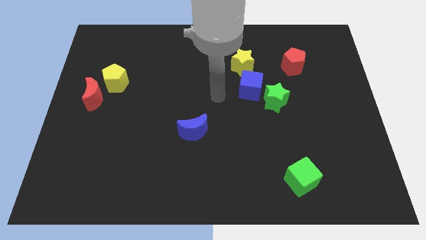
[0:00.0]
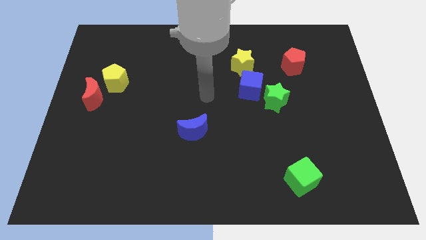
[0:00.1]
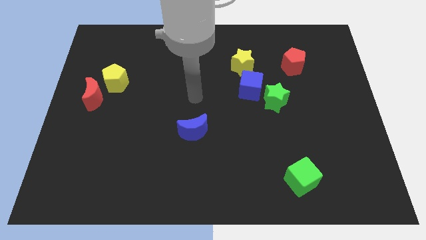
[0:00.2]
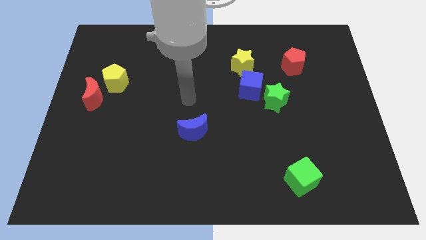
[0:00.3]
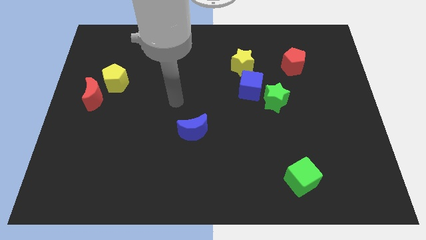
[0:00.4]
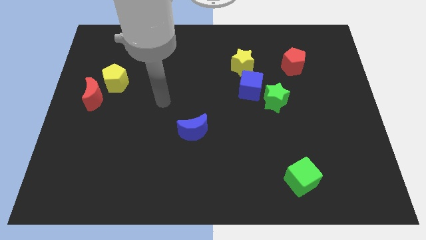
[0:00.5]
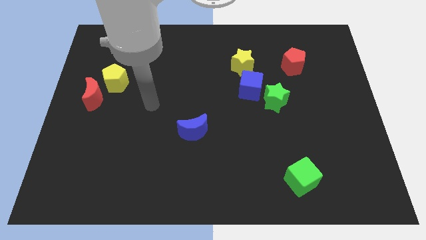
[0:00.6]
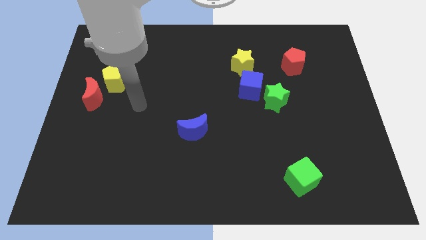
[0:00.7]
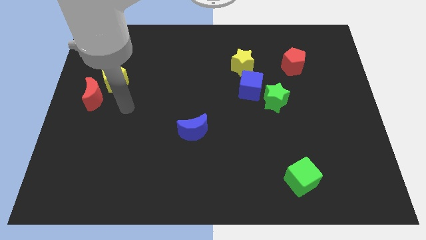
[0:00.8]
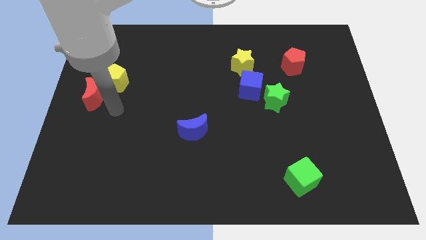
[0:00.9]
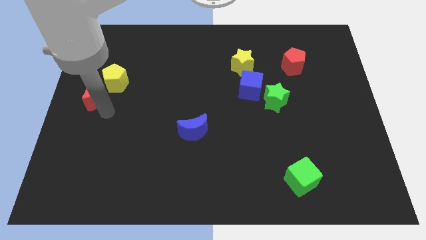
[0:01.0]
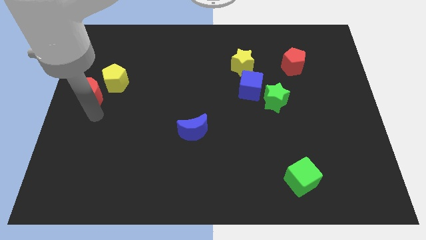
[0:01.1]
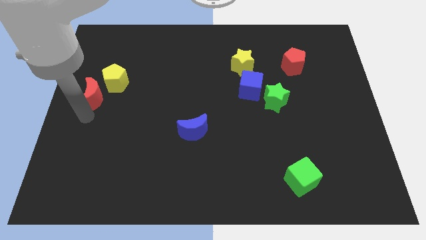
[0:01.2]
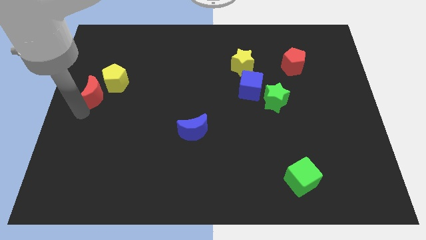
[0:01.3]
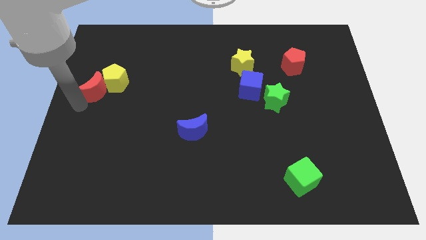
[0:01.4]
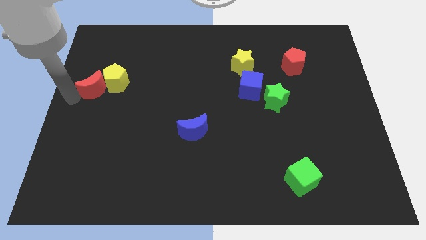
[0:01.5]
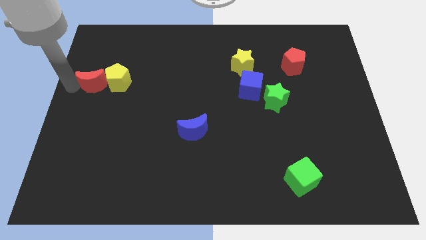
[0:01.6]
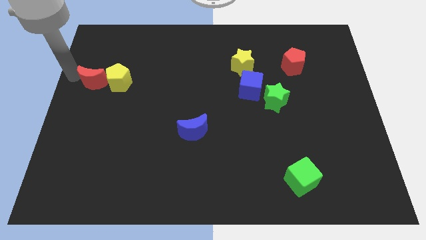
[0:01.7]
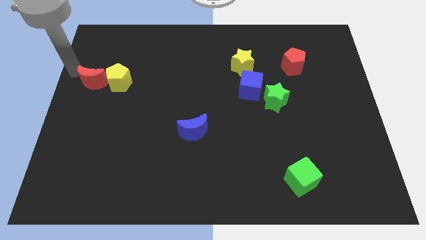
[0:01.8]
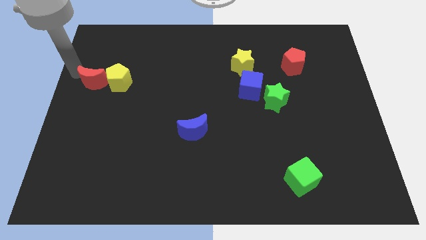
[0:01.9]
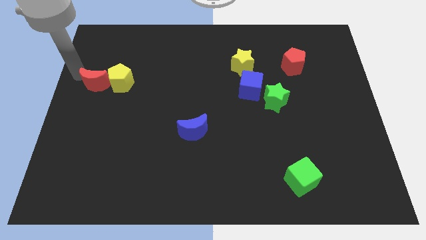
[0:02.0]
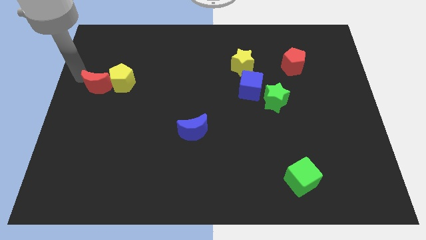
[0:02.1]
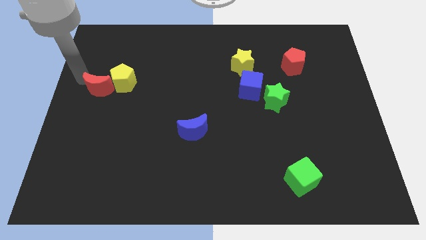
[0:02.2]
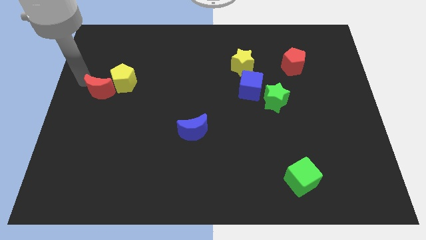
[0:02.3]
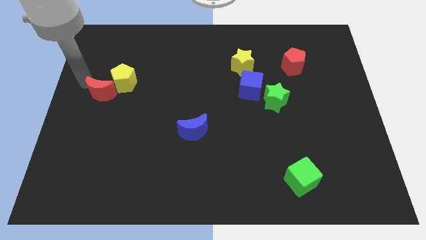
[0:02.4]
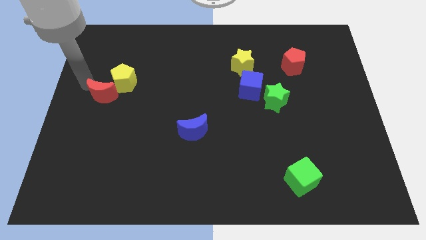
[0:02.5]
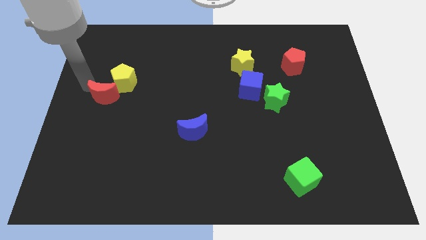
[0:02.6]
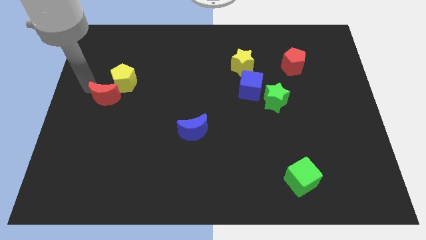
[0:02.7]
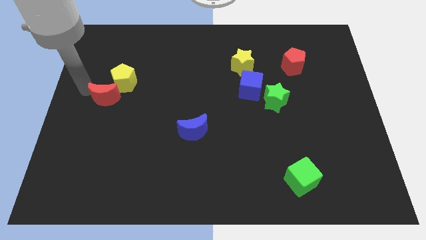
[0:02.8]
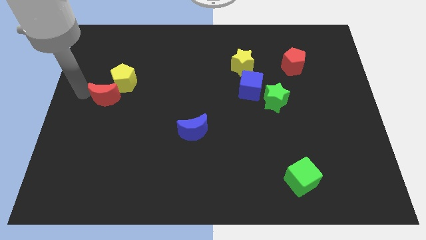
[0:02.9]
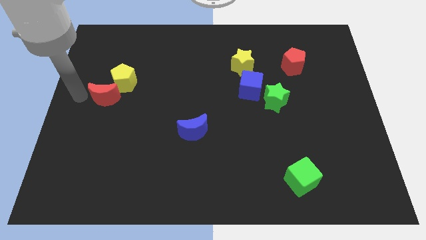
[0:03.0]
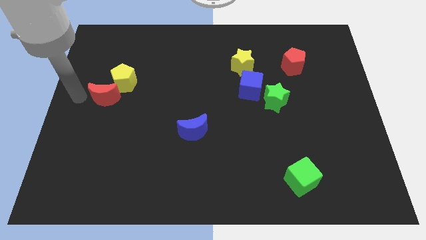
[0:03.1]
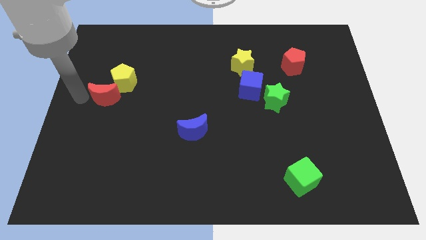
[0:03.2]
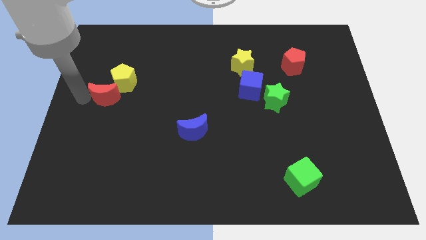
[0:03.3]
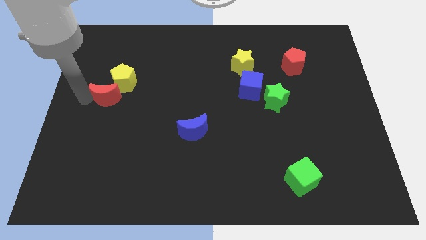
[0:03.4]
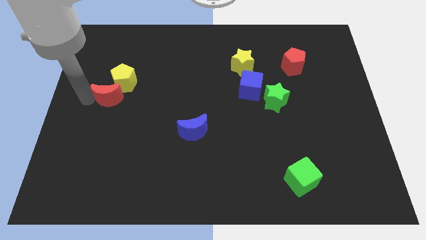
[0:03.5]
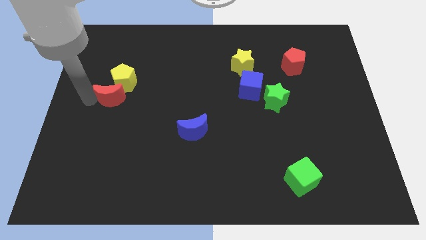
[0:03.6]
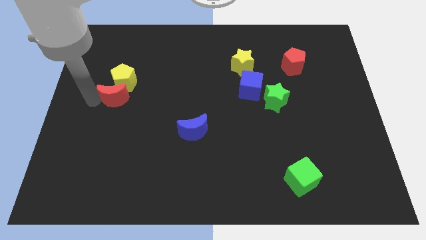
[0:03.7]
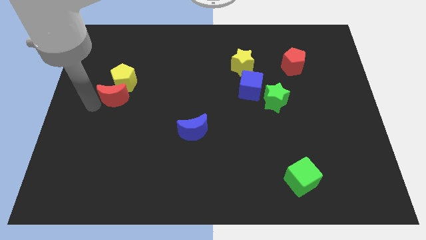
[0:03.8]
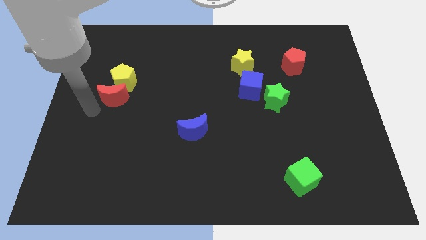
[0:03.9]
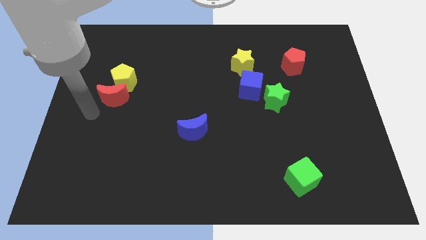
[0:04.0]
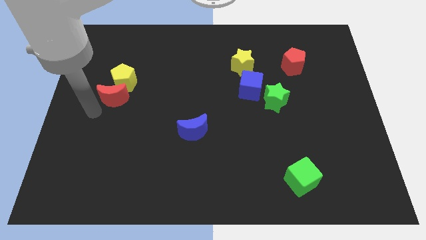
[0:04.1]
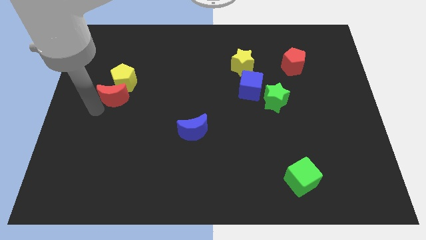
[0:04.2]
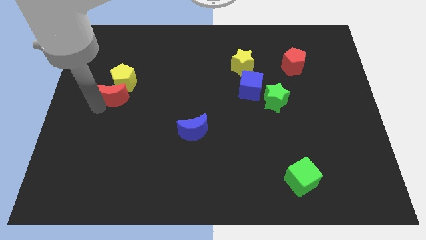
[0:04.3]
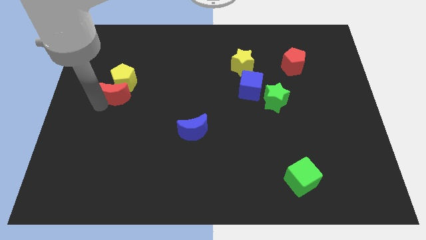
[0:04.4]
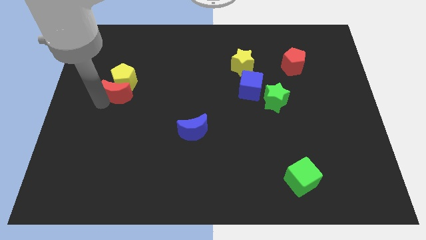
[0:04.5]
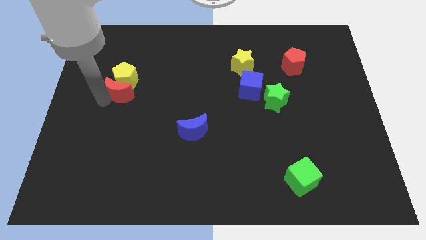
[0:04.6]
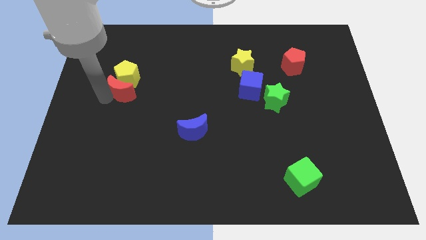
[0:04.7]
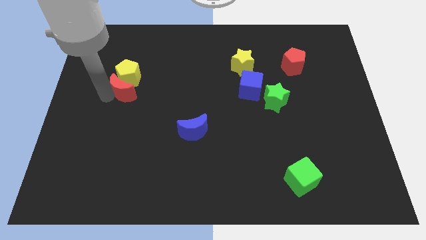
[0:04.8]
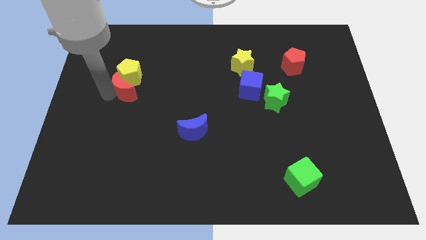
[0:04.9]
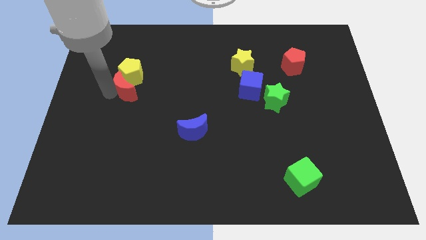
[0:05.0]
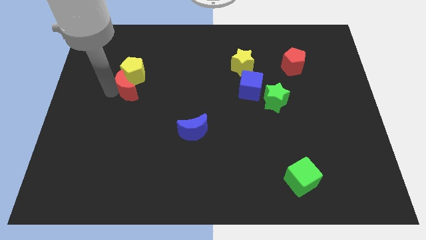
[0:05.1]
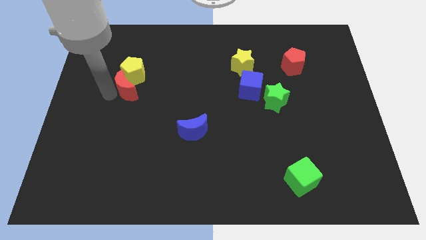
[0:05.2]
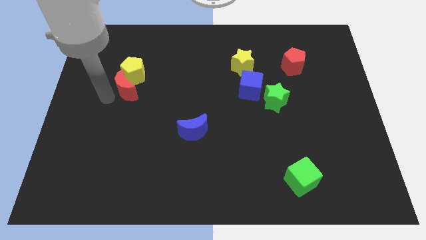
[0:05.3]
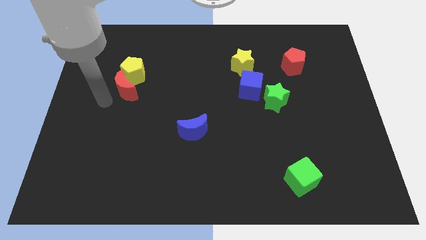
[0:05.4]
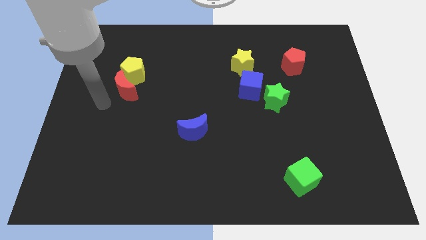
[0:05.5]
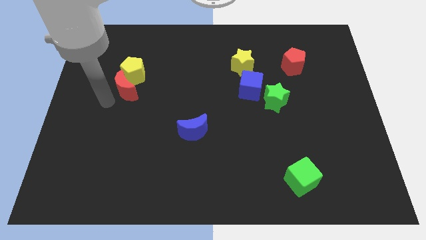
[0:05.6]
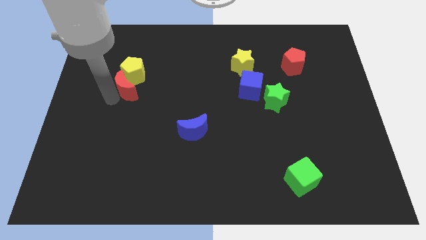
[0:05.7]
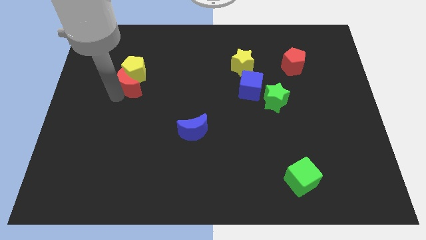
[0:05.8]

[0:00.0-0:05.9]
slightly move the red moon diagonally up and to the right

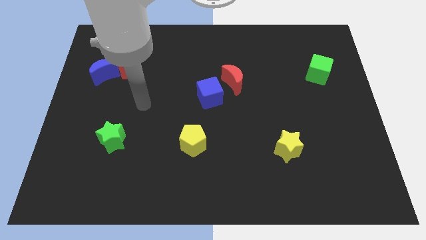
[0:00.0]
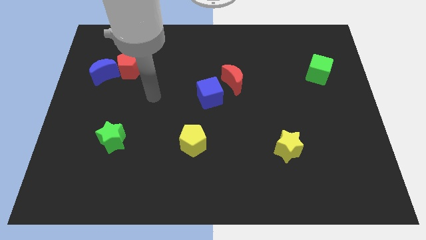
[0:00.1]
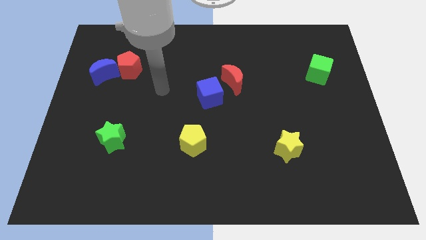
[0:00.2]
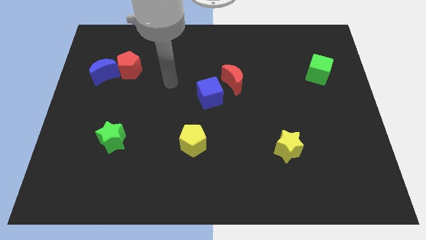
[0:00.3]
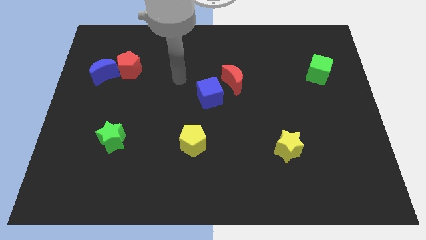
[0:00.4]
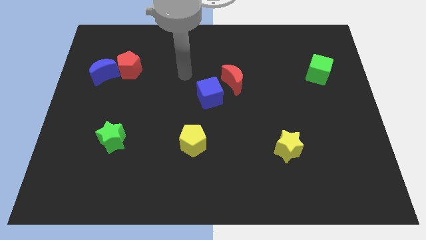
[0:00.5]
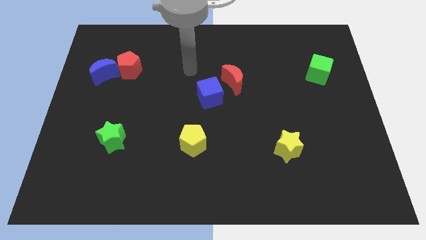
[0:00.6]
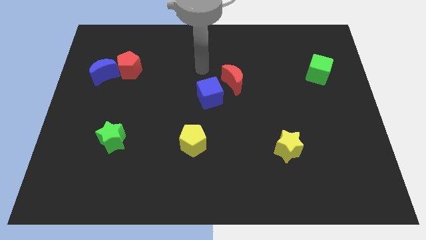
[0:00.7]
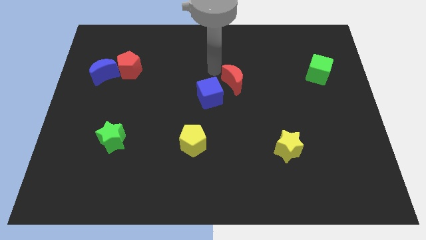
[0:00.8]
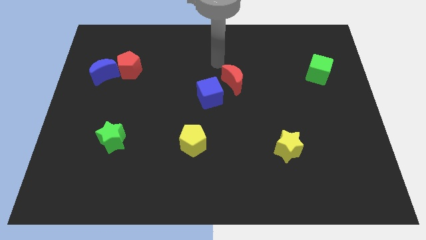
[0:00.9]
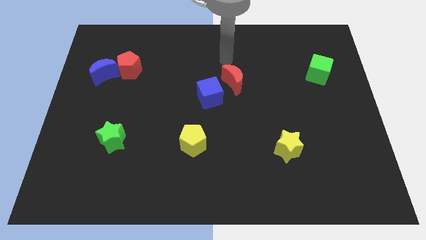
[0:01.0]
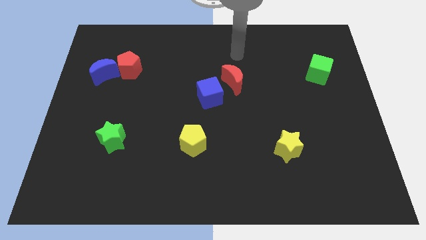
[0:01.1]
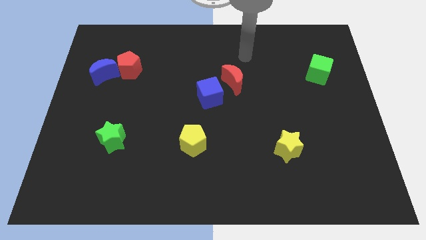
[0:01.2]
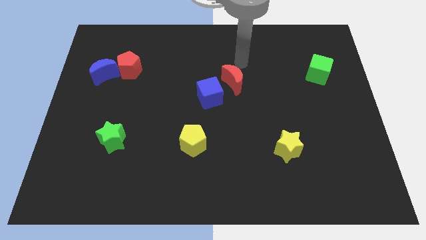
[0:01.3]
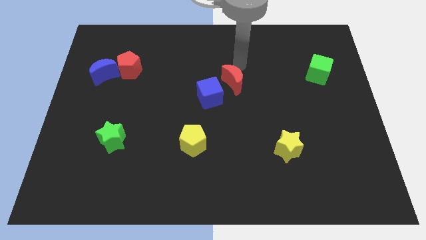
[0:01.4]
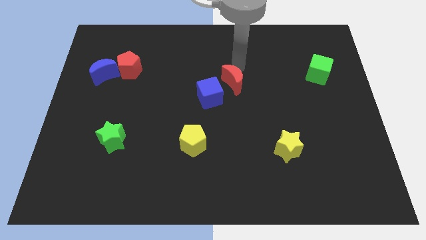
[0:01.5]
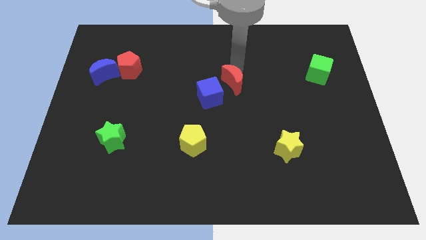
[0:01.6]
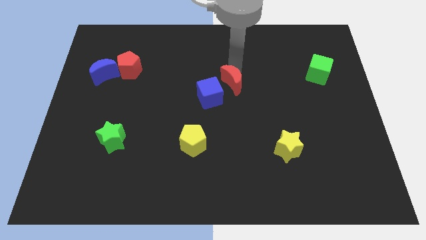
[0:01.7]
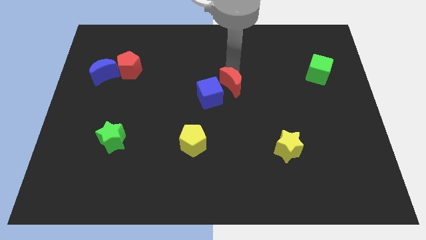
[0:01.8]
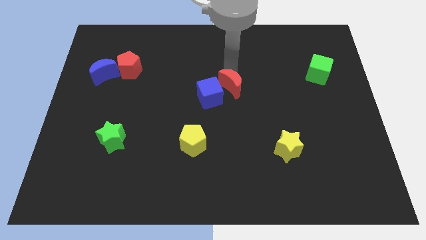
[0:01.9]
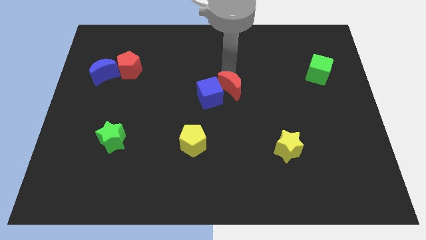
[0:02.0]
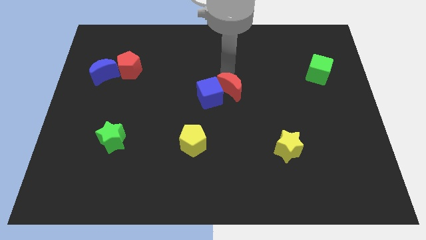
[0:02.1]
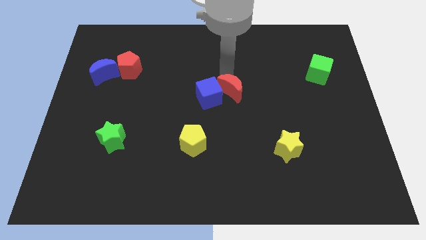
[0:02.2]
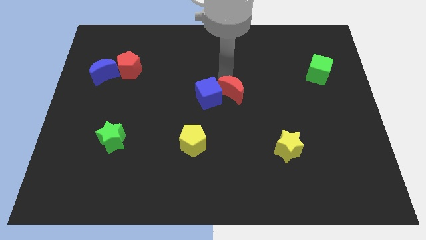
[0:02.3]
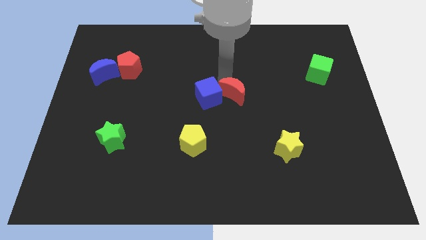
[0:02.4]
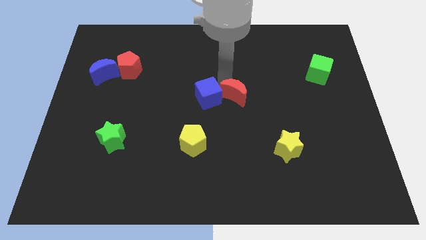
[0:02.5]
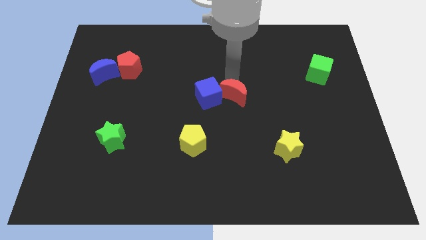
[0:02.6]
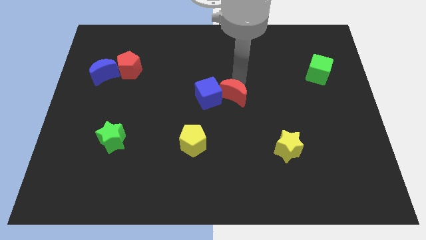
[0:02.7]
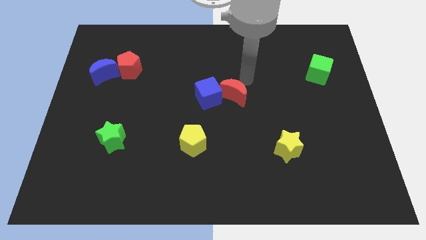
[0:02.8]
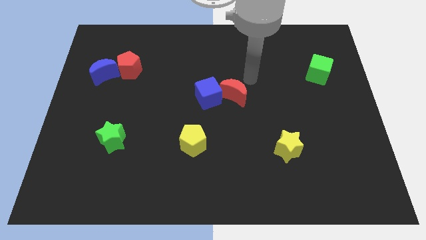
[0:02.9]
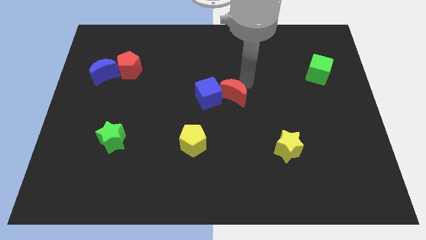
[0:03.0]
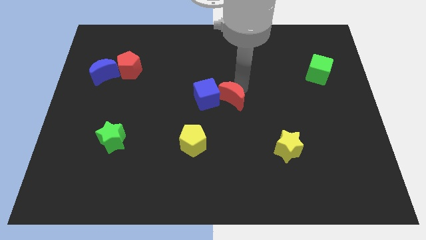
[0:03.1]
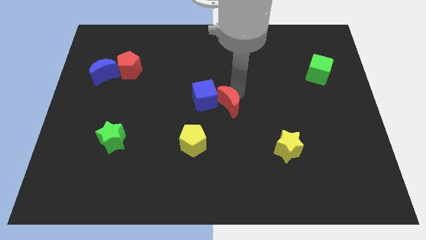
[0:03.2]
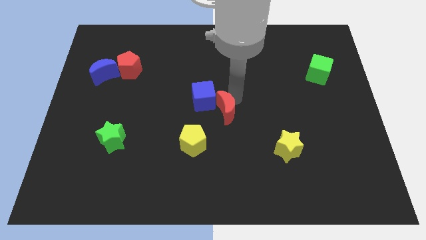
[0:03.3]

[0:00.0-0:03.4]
move the red moon down and then left slightly
